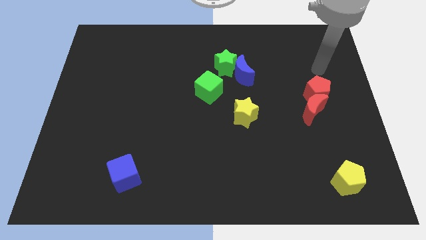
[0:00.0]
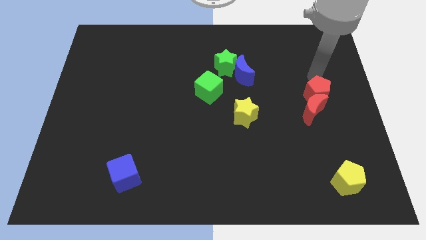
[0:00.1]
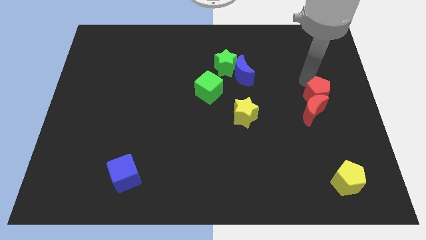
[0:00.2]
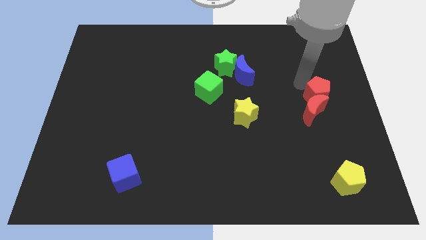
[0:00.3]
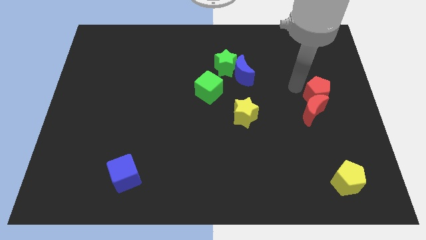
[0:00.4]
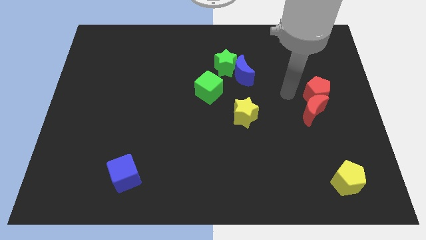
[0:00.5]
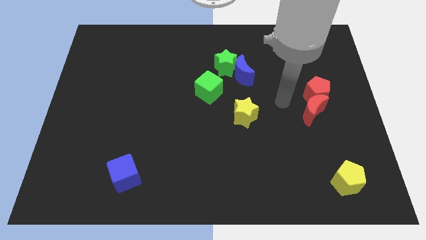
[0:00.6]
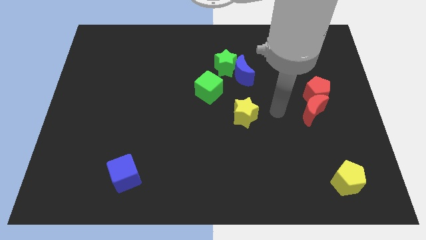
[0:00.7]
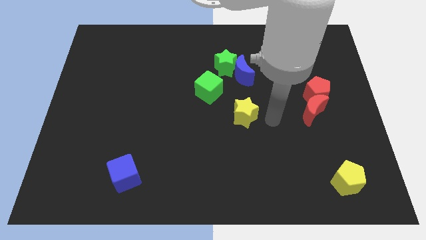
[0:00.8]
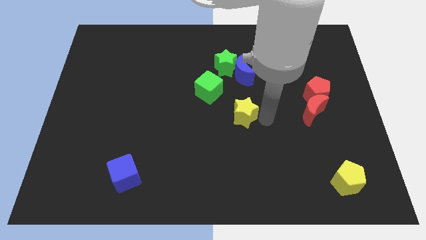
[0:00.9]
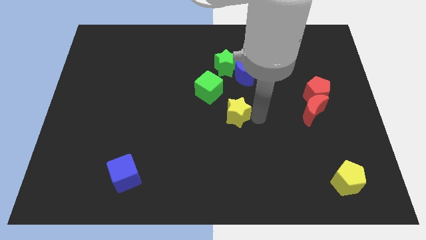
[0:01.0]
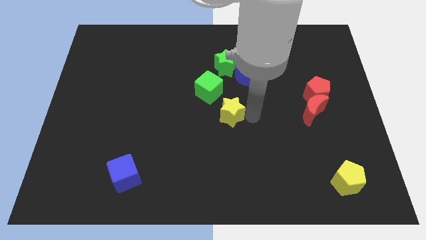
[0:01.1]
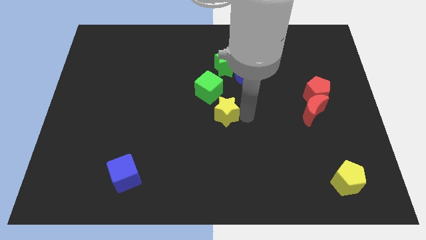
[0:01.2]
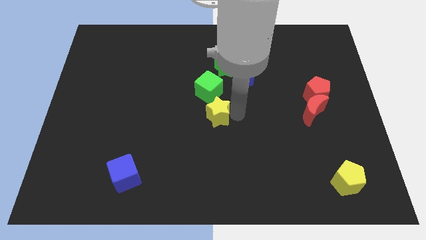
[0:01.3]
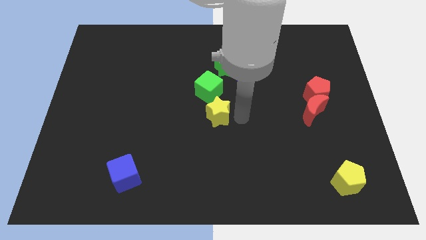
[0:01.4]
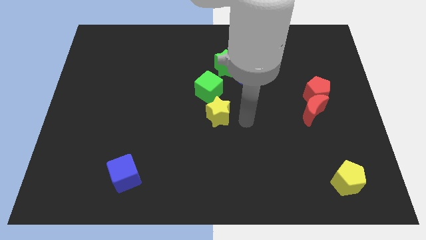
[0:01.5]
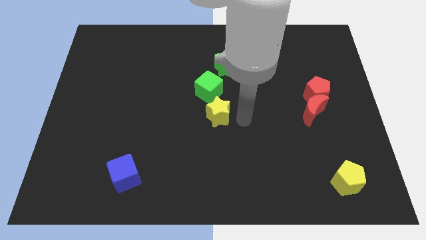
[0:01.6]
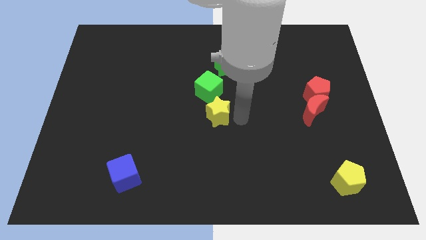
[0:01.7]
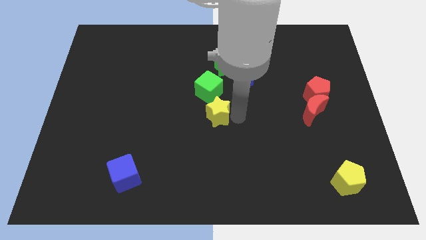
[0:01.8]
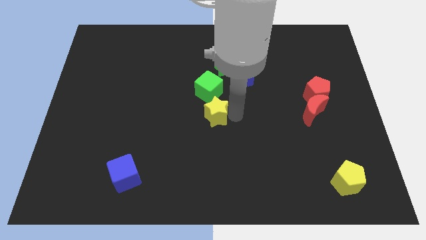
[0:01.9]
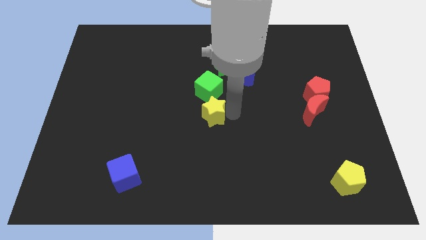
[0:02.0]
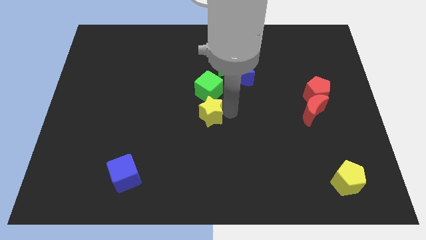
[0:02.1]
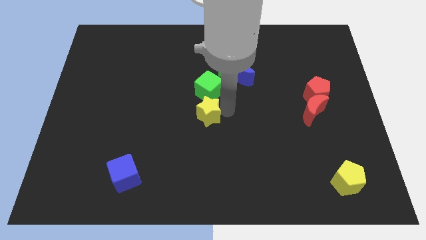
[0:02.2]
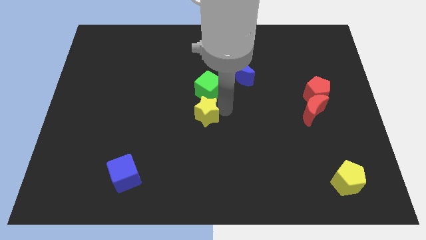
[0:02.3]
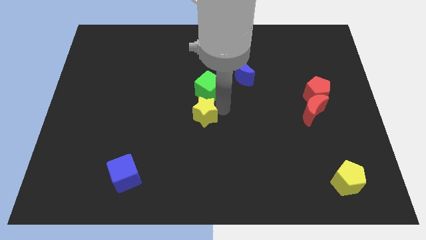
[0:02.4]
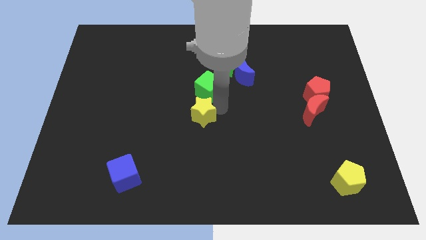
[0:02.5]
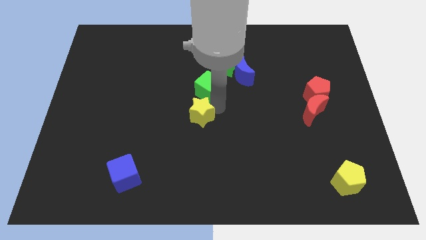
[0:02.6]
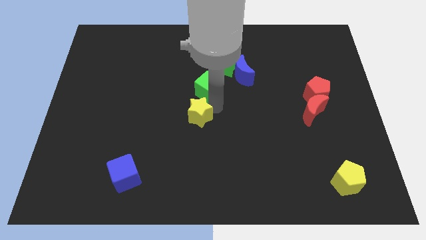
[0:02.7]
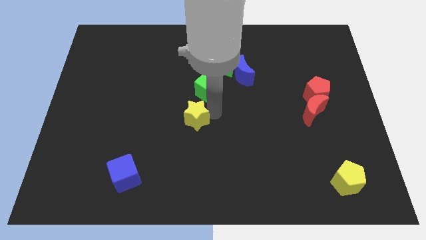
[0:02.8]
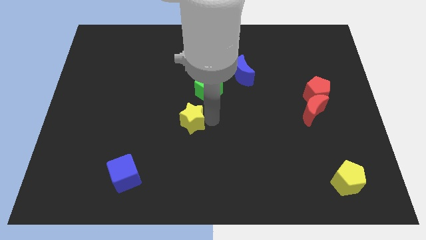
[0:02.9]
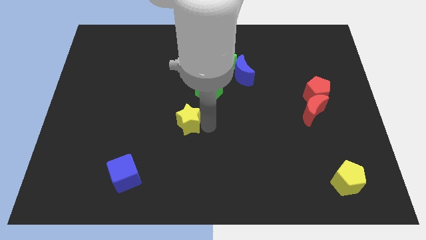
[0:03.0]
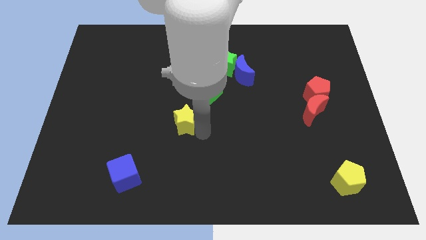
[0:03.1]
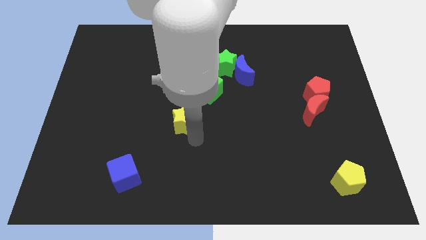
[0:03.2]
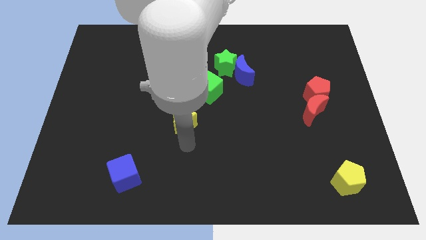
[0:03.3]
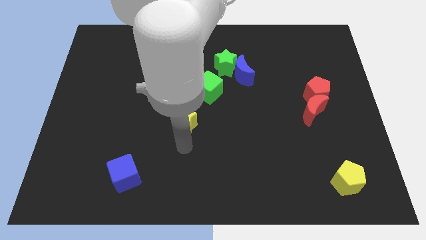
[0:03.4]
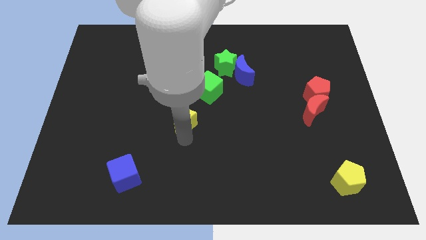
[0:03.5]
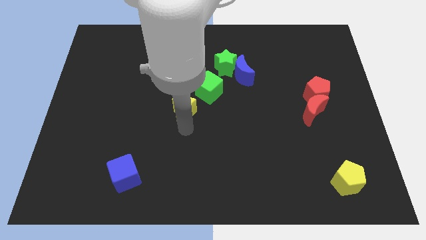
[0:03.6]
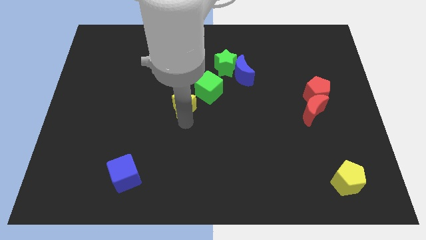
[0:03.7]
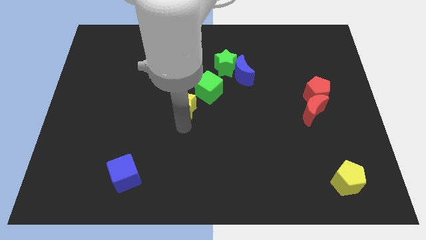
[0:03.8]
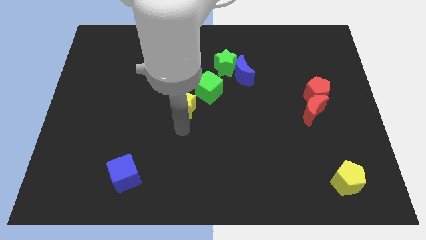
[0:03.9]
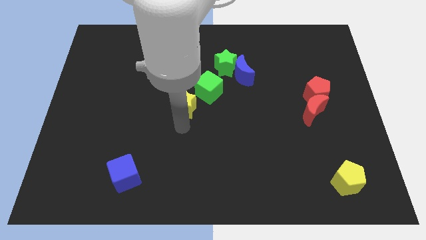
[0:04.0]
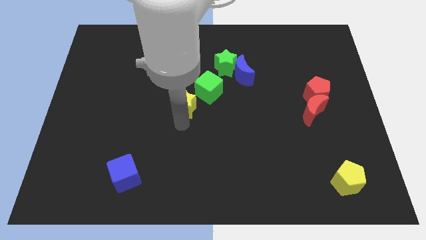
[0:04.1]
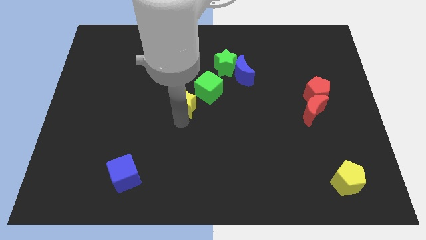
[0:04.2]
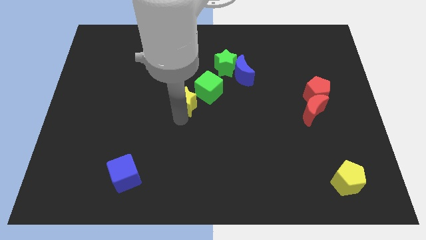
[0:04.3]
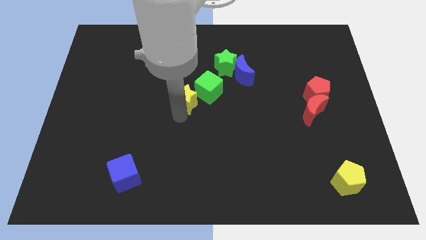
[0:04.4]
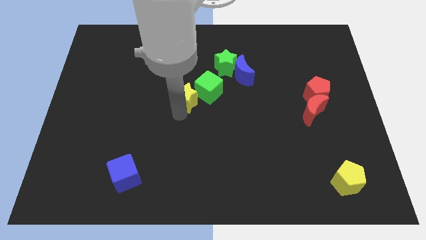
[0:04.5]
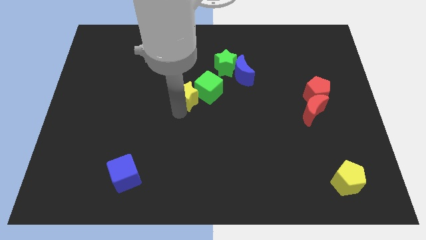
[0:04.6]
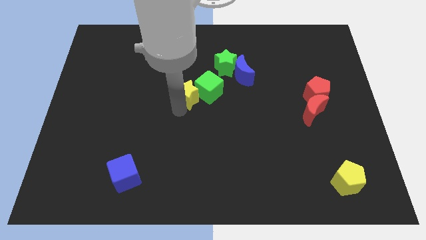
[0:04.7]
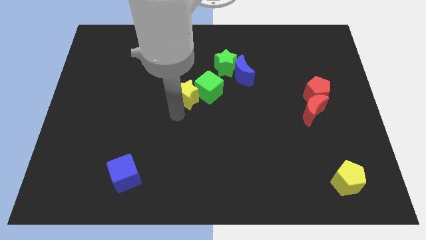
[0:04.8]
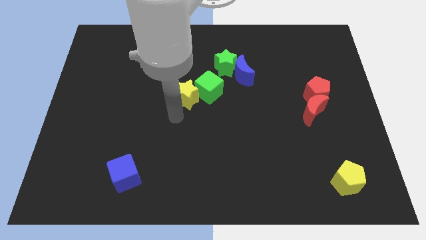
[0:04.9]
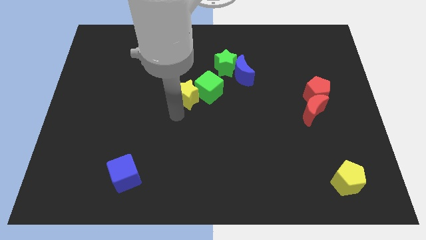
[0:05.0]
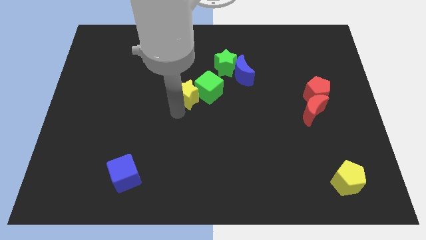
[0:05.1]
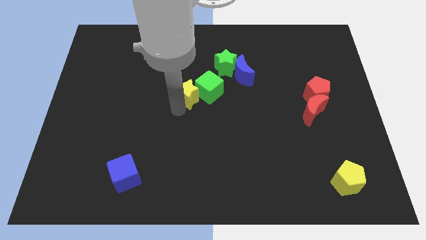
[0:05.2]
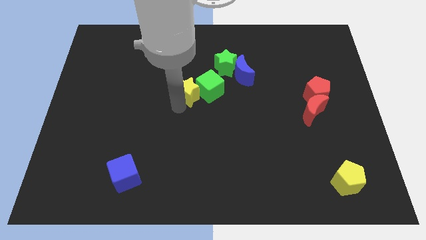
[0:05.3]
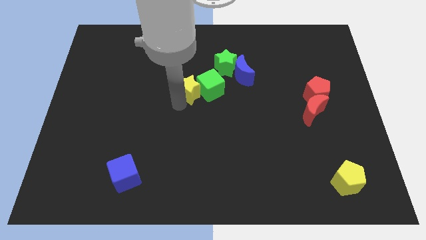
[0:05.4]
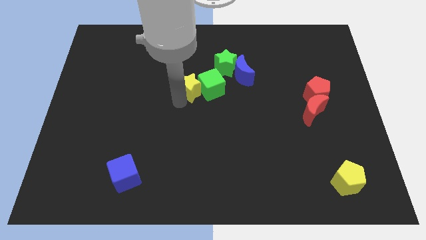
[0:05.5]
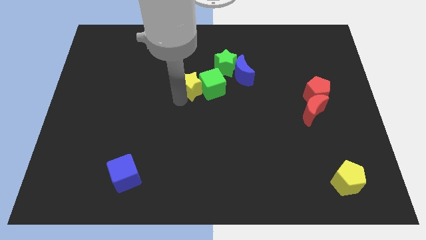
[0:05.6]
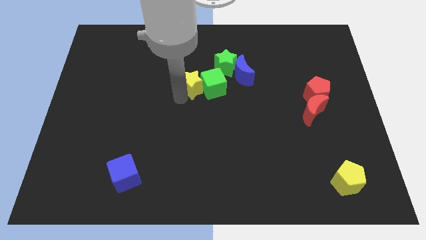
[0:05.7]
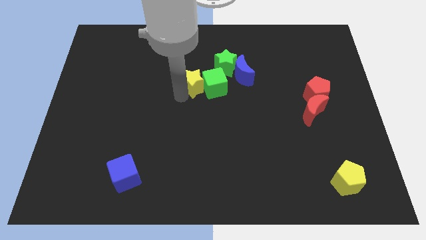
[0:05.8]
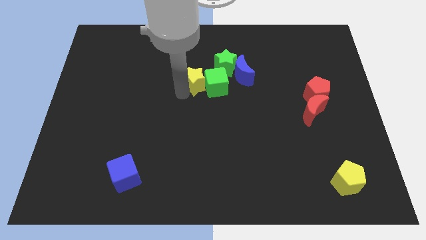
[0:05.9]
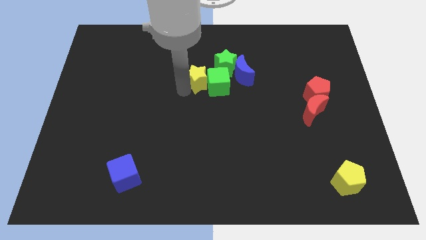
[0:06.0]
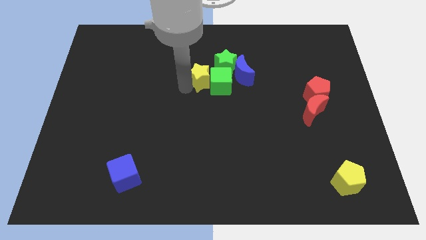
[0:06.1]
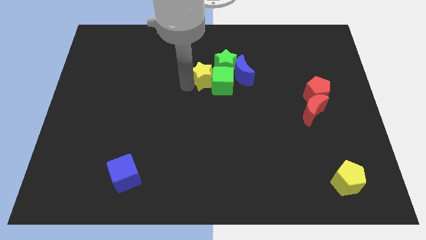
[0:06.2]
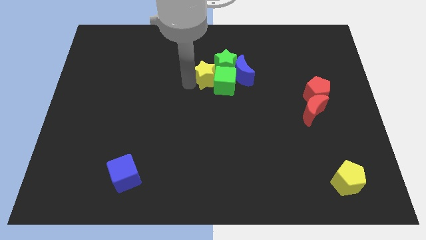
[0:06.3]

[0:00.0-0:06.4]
push the yellow star close to the green star

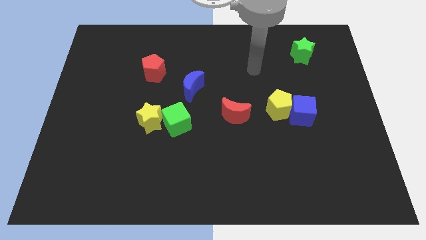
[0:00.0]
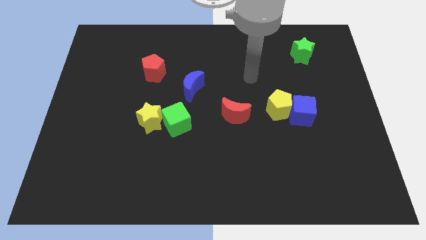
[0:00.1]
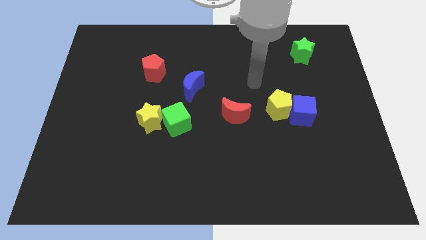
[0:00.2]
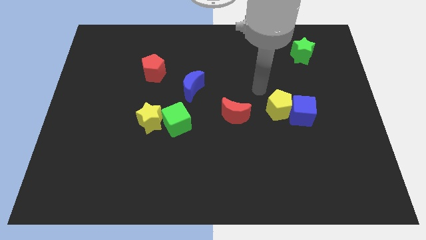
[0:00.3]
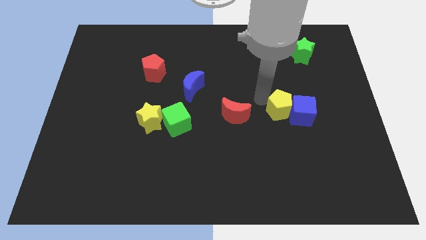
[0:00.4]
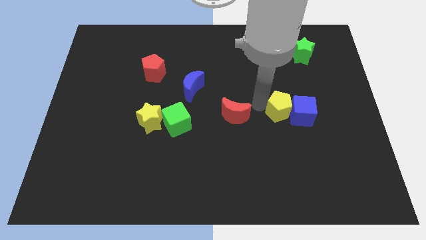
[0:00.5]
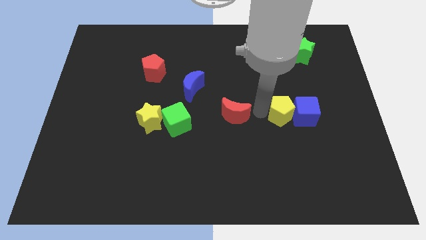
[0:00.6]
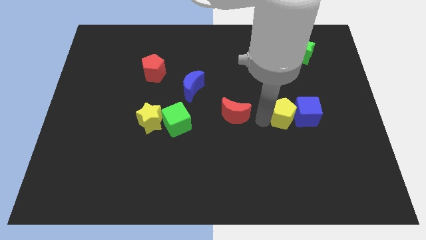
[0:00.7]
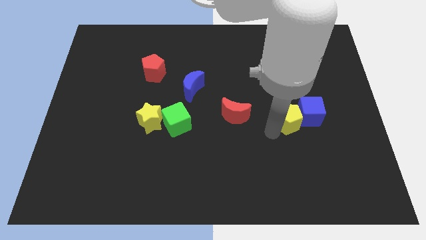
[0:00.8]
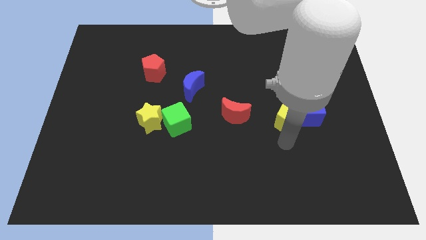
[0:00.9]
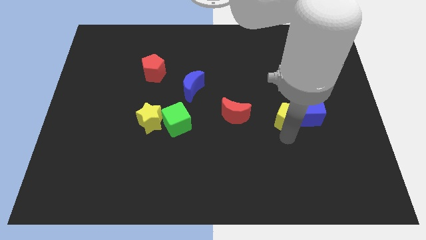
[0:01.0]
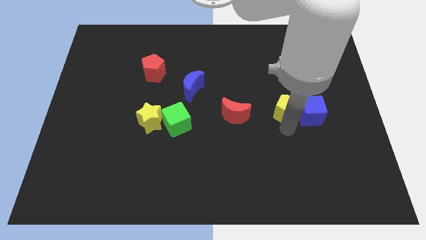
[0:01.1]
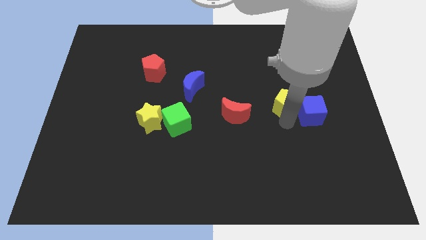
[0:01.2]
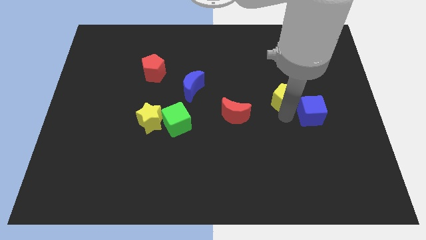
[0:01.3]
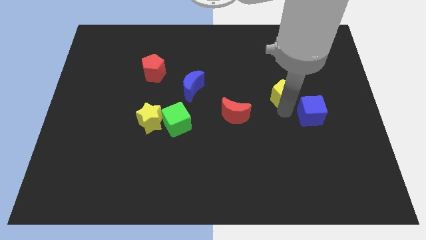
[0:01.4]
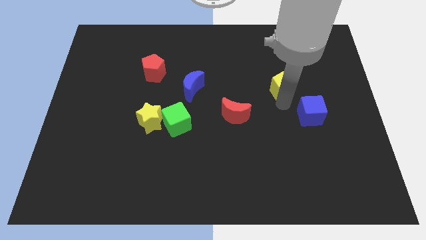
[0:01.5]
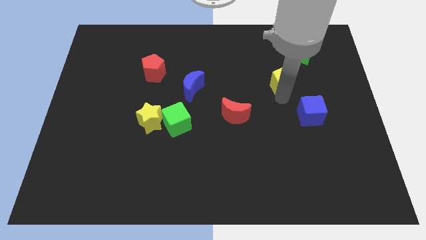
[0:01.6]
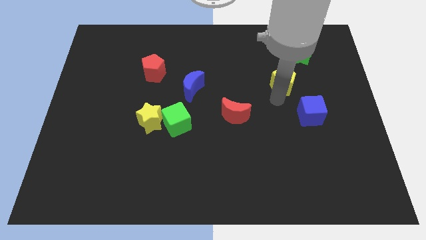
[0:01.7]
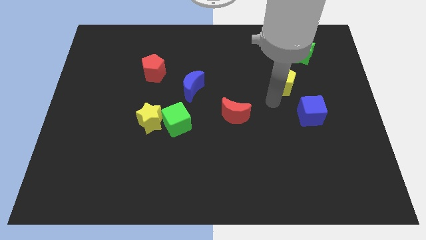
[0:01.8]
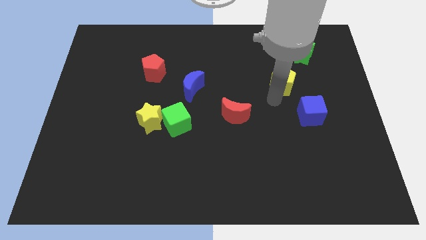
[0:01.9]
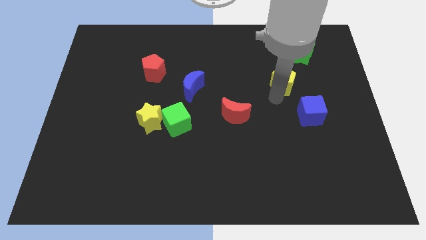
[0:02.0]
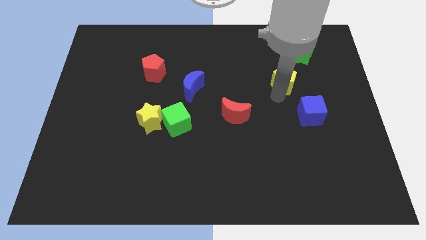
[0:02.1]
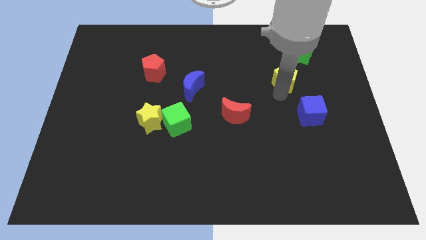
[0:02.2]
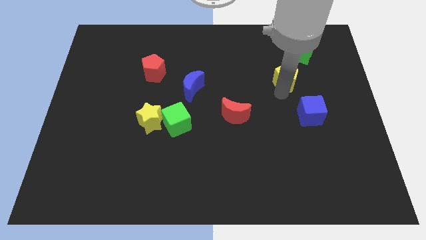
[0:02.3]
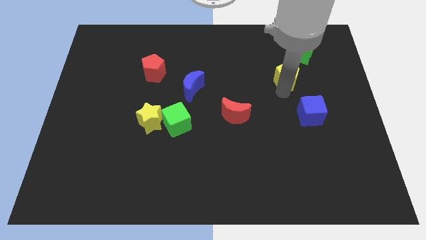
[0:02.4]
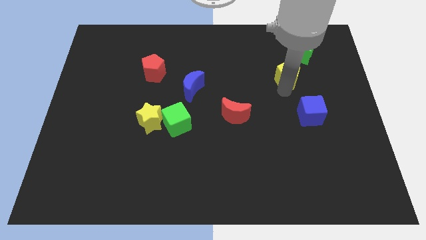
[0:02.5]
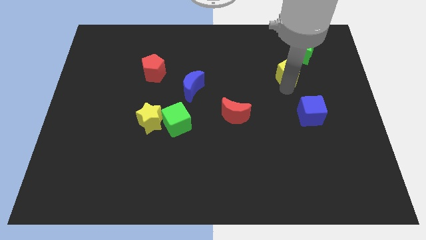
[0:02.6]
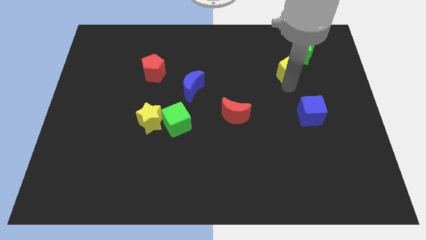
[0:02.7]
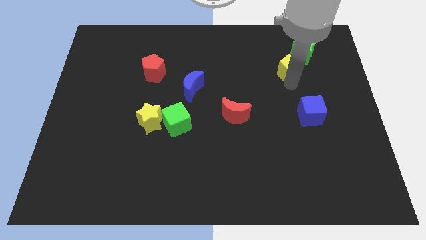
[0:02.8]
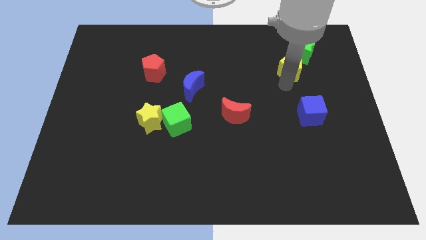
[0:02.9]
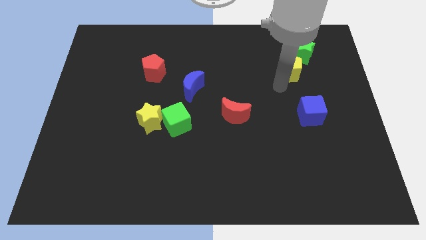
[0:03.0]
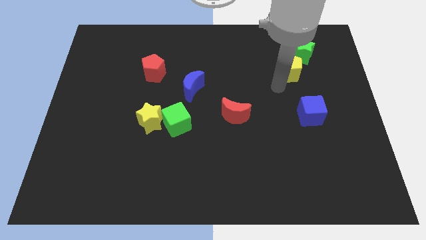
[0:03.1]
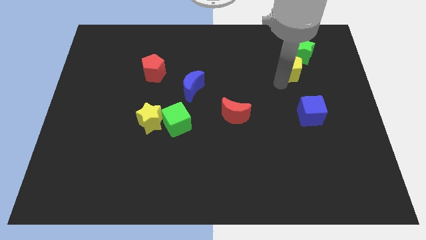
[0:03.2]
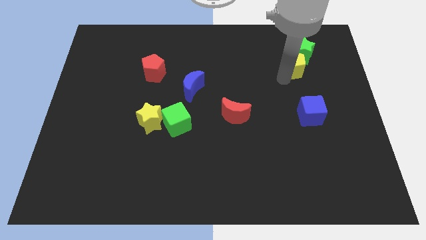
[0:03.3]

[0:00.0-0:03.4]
push the yellow pentagon to the green star
